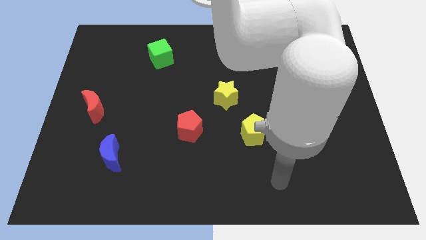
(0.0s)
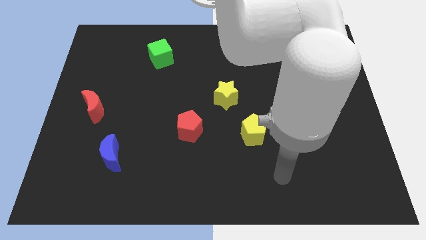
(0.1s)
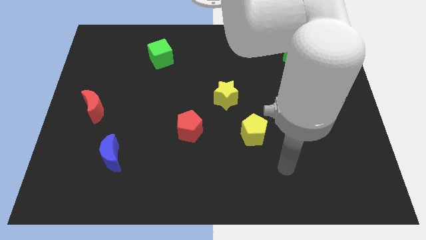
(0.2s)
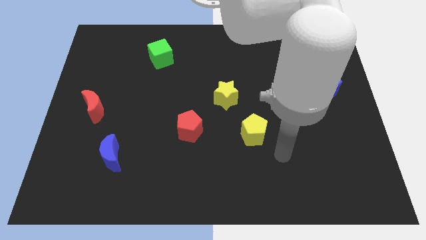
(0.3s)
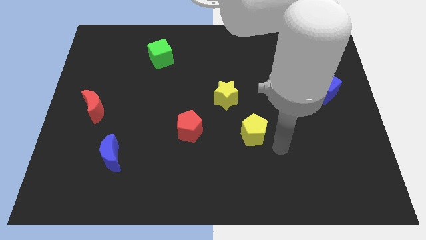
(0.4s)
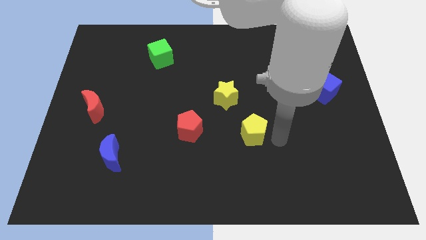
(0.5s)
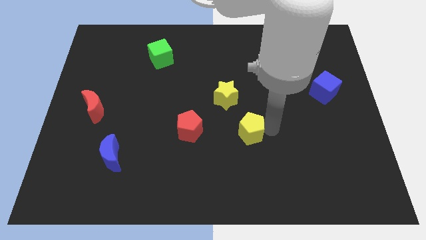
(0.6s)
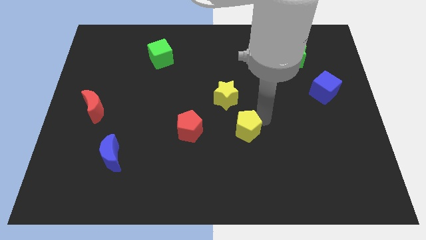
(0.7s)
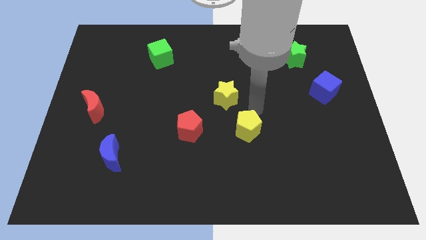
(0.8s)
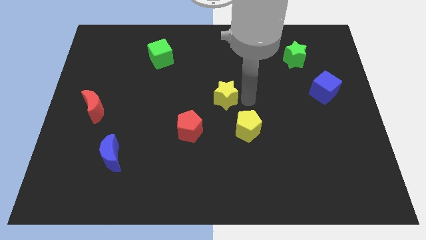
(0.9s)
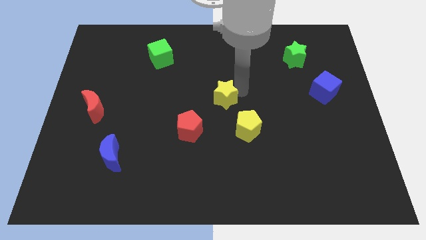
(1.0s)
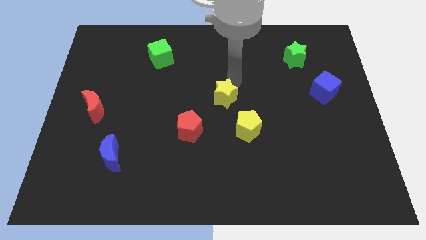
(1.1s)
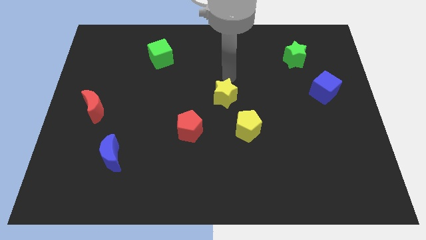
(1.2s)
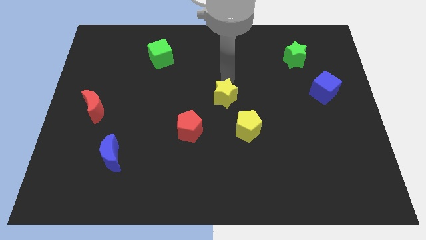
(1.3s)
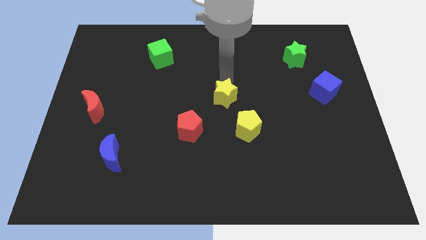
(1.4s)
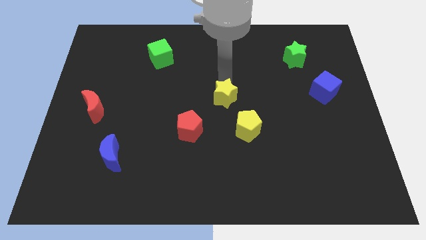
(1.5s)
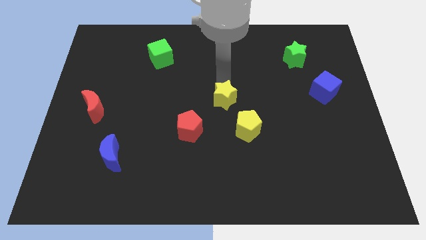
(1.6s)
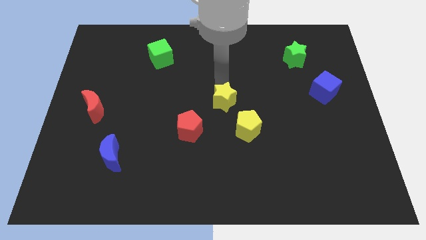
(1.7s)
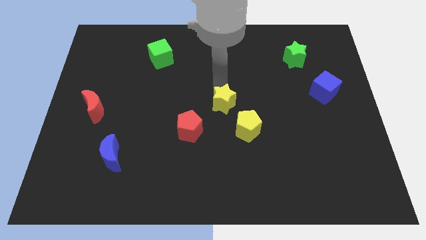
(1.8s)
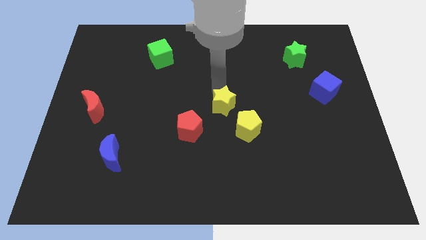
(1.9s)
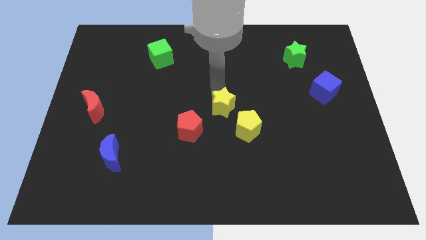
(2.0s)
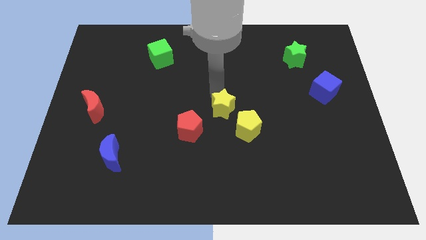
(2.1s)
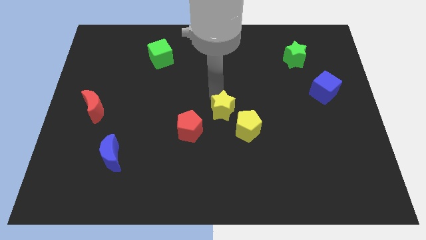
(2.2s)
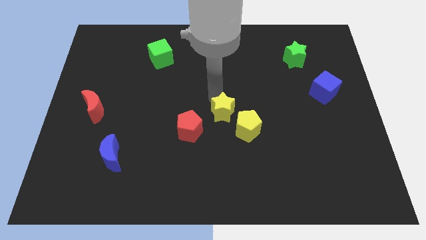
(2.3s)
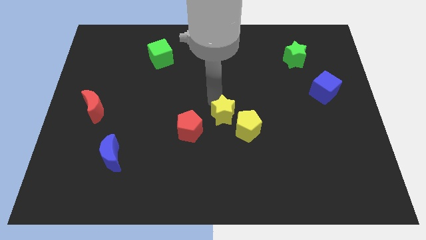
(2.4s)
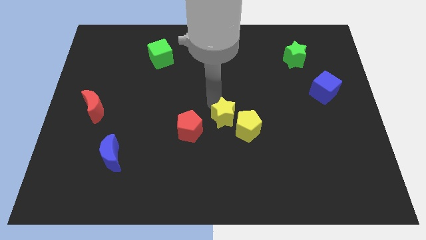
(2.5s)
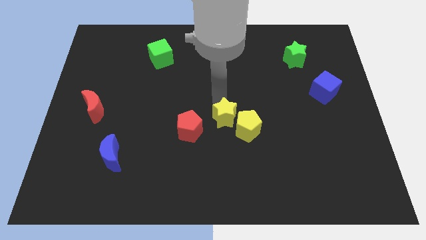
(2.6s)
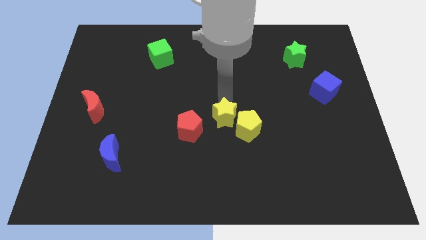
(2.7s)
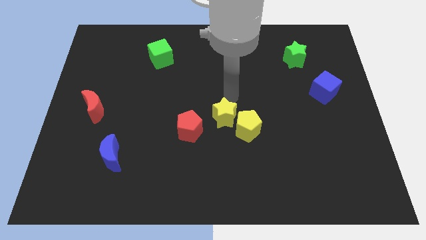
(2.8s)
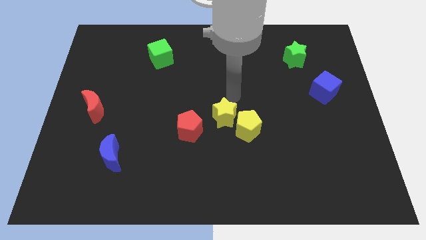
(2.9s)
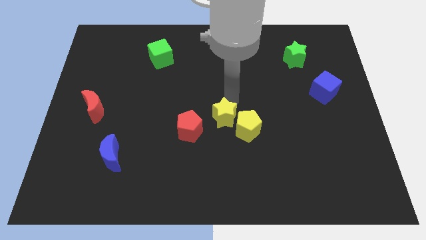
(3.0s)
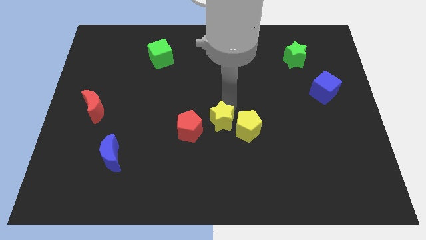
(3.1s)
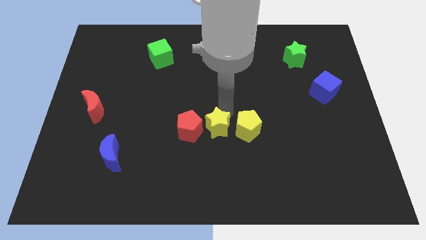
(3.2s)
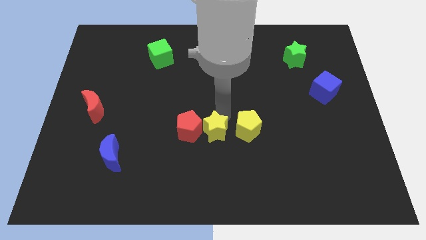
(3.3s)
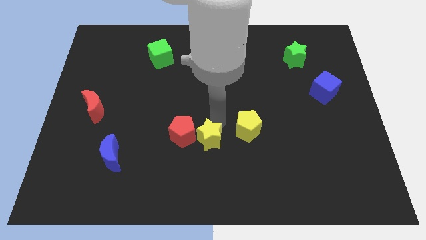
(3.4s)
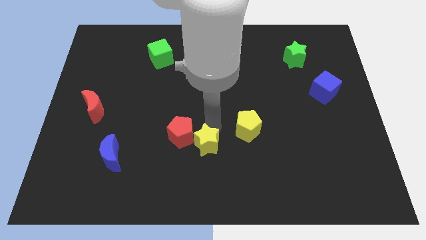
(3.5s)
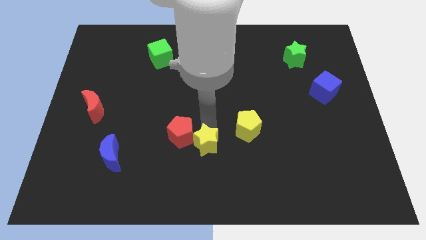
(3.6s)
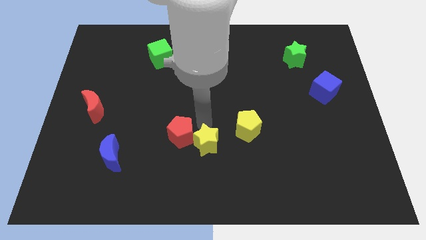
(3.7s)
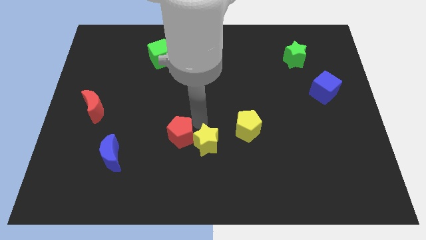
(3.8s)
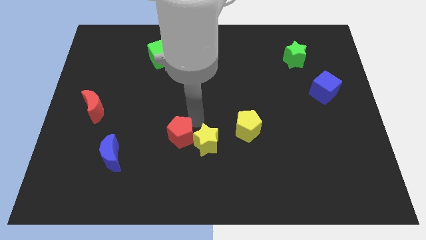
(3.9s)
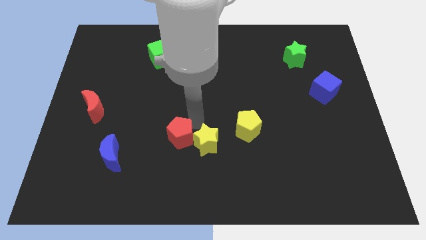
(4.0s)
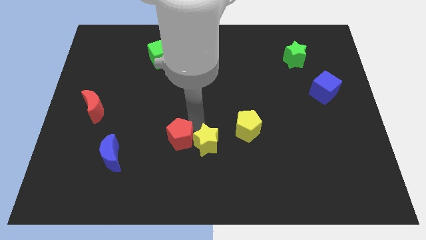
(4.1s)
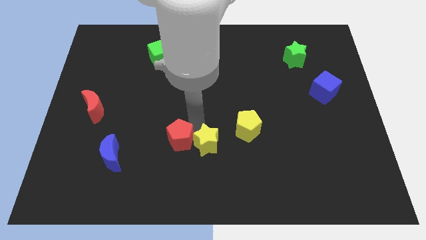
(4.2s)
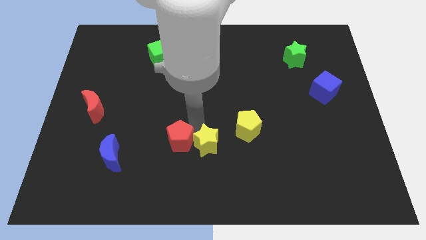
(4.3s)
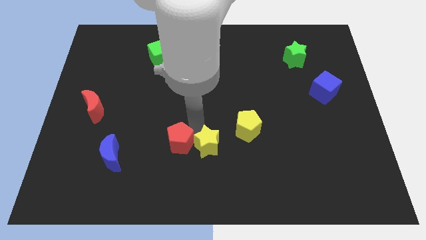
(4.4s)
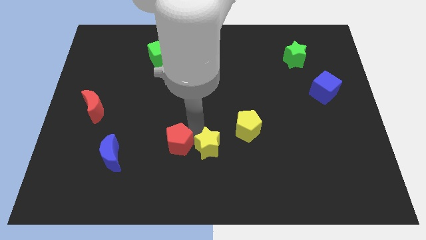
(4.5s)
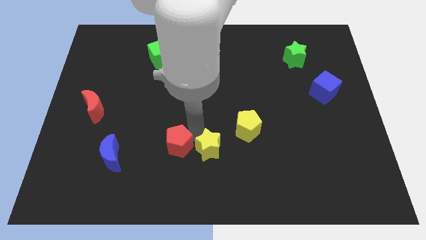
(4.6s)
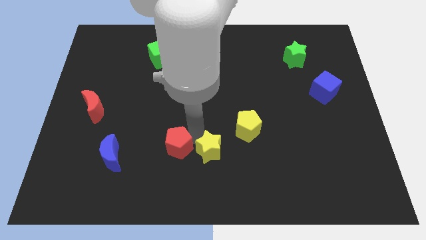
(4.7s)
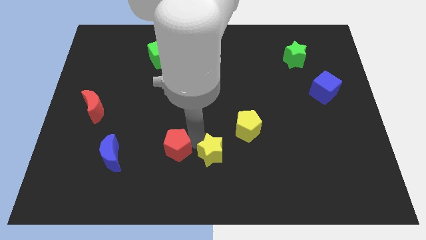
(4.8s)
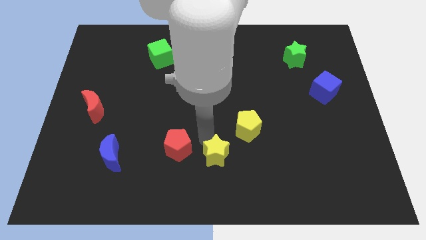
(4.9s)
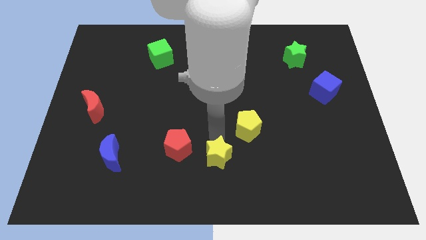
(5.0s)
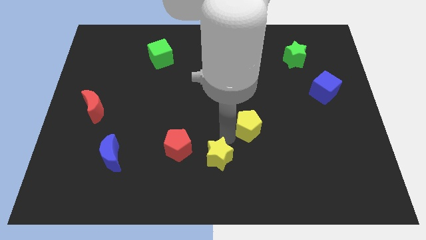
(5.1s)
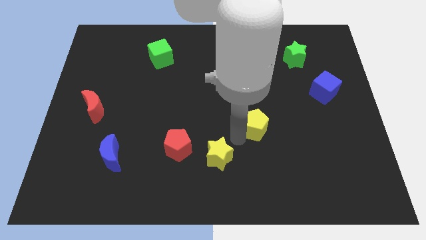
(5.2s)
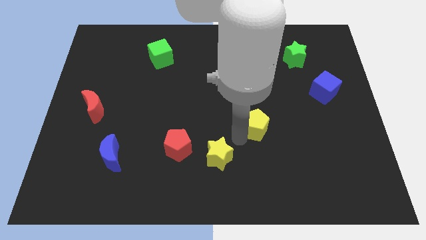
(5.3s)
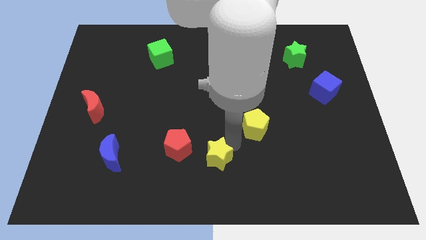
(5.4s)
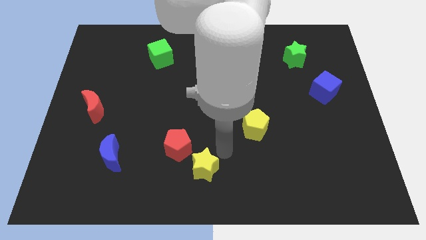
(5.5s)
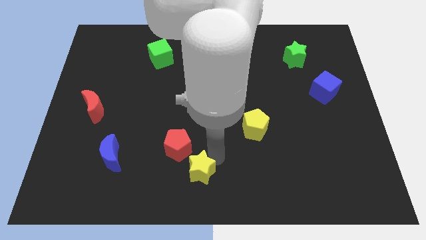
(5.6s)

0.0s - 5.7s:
push the yellow star below the red pentagon

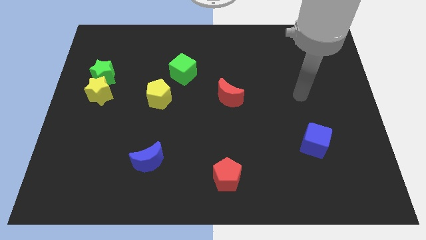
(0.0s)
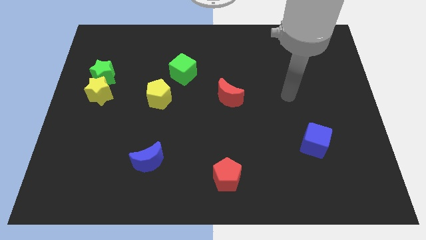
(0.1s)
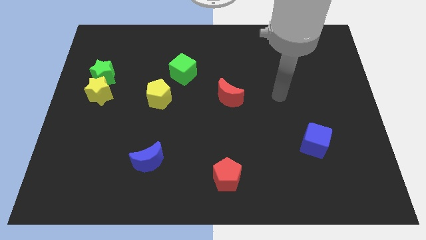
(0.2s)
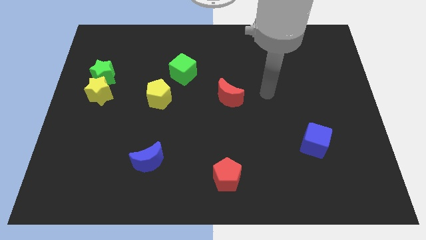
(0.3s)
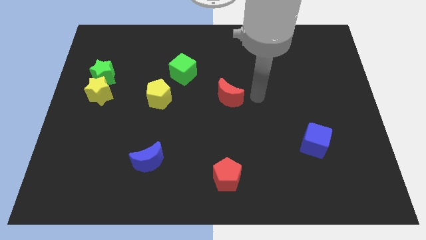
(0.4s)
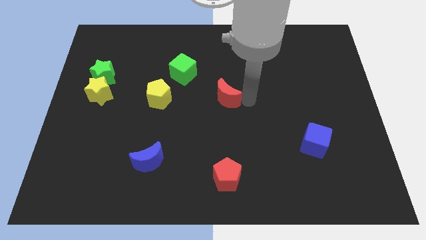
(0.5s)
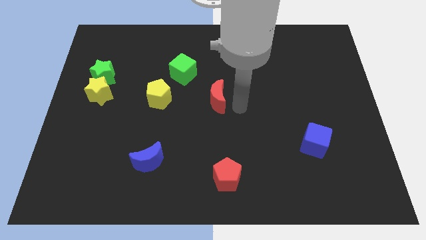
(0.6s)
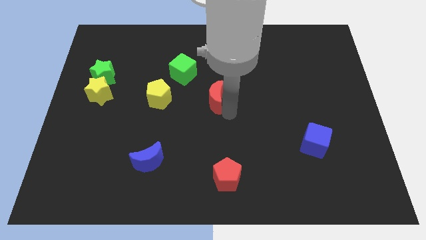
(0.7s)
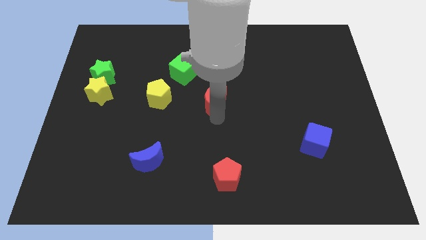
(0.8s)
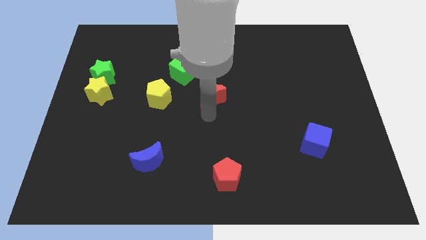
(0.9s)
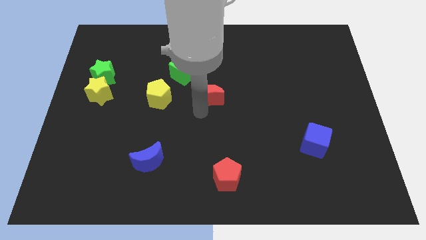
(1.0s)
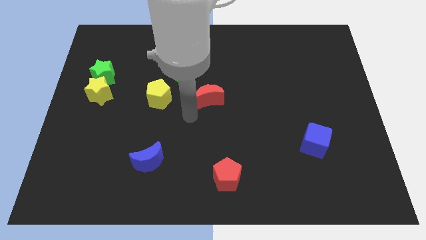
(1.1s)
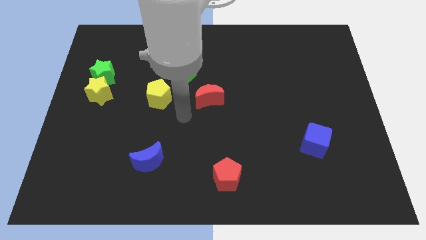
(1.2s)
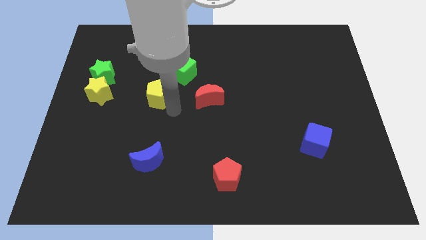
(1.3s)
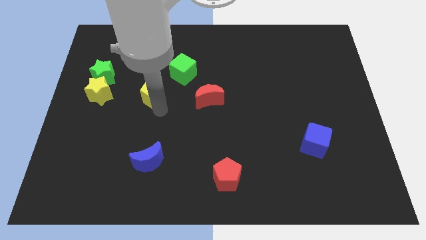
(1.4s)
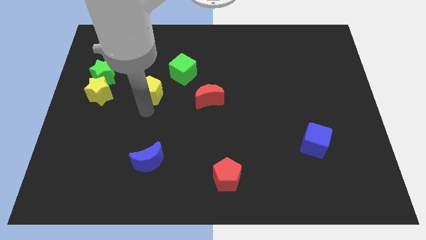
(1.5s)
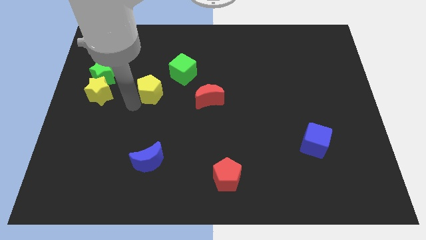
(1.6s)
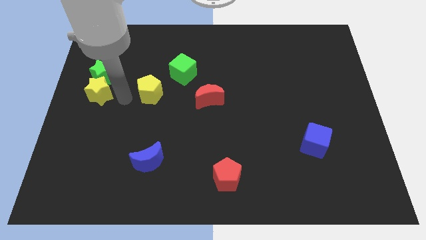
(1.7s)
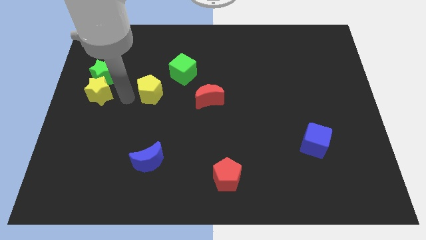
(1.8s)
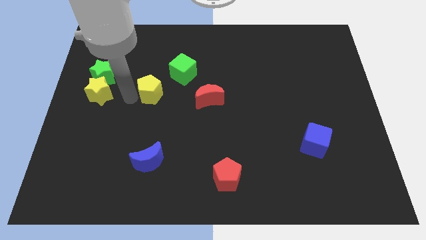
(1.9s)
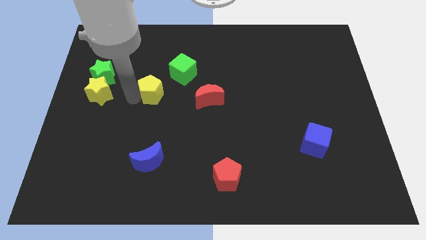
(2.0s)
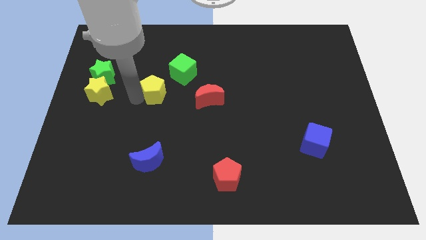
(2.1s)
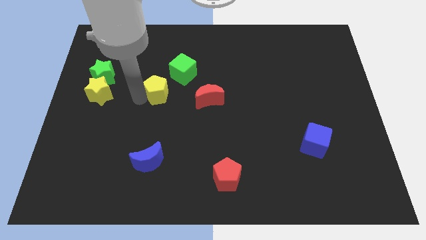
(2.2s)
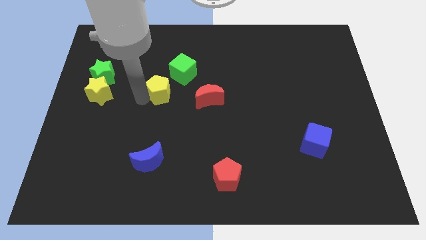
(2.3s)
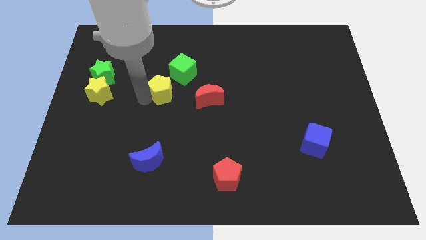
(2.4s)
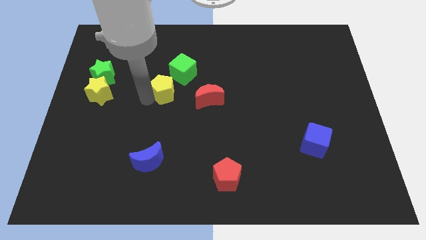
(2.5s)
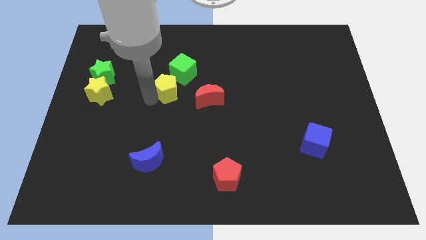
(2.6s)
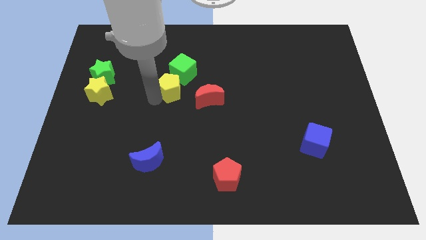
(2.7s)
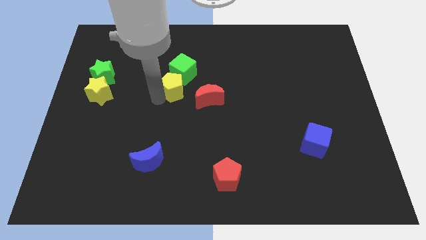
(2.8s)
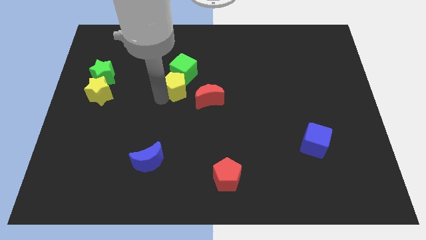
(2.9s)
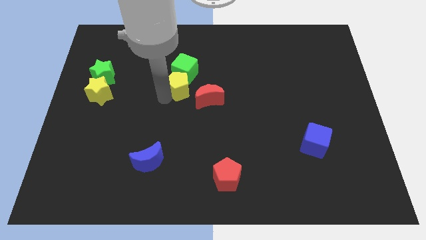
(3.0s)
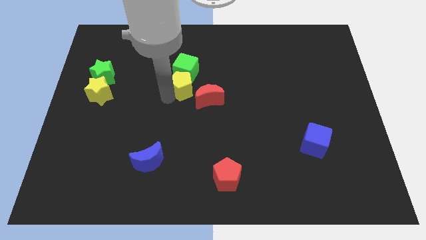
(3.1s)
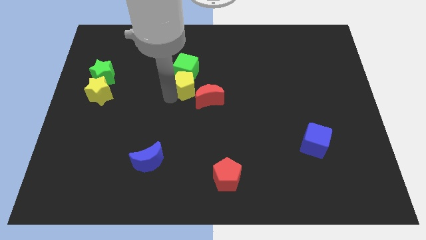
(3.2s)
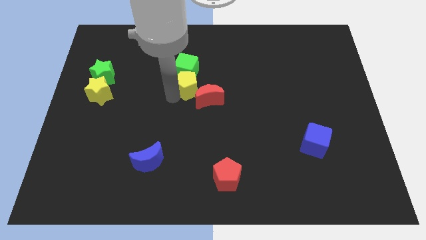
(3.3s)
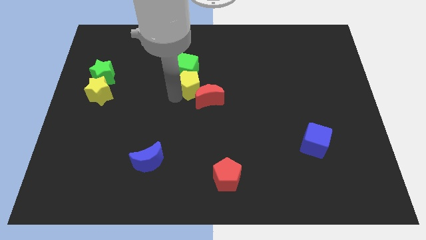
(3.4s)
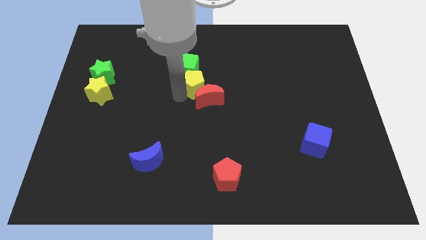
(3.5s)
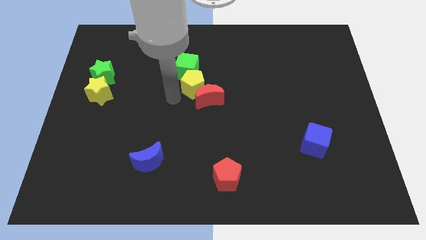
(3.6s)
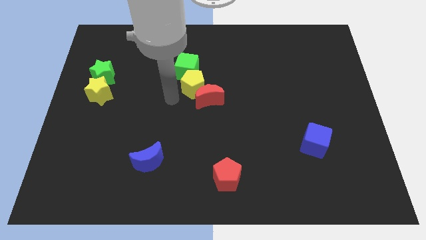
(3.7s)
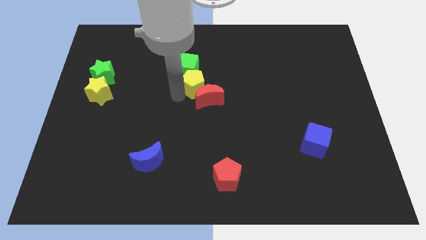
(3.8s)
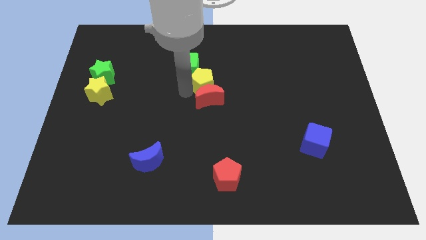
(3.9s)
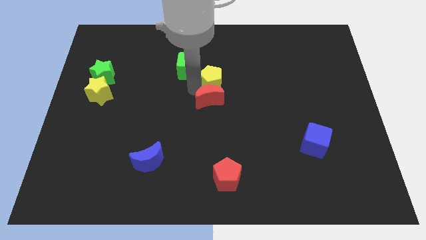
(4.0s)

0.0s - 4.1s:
move the yellow pentagon right of the green cube
